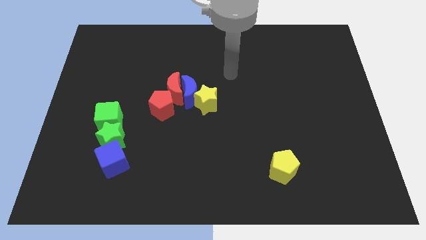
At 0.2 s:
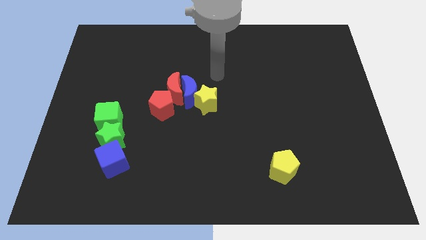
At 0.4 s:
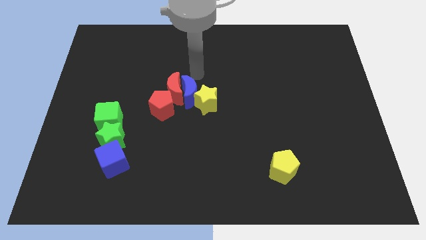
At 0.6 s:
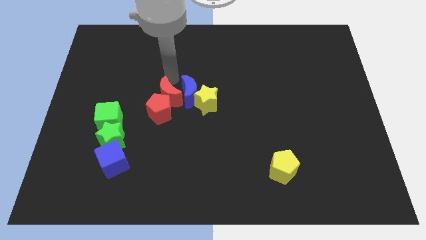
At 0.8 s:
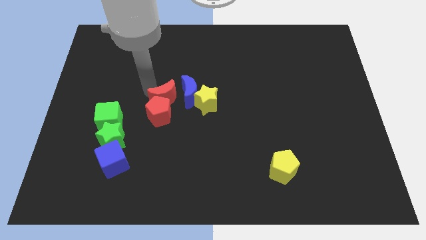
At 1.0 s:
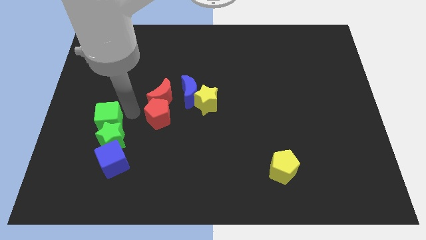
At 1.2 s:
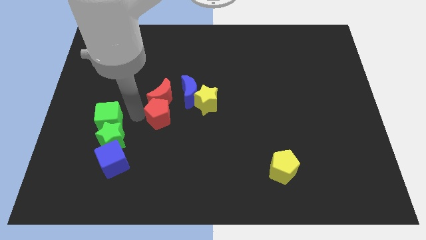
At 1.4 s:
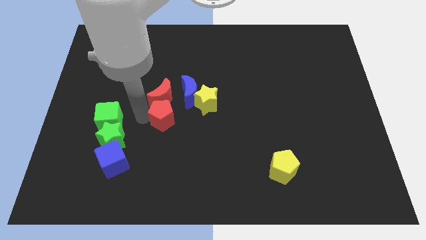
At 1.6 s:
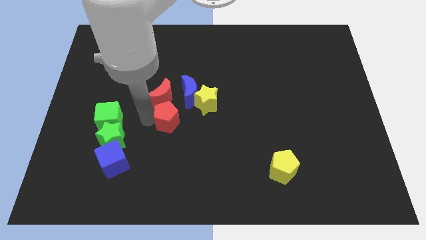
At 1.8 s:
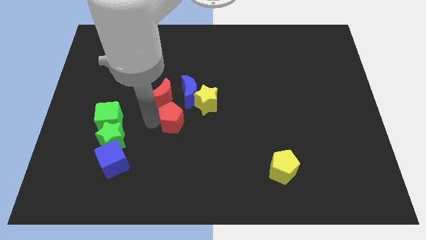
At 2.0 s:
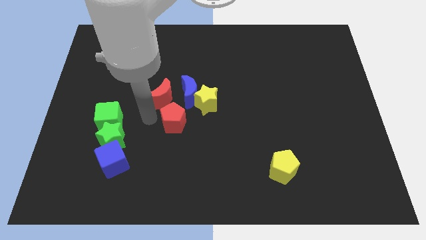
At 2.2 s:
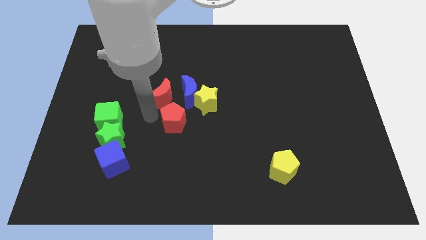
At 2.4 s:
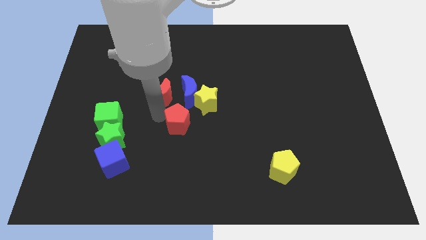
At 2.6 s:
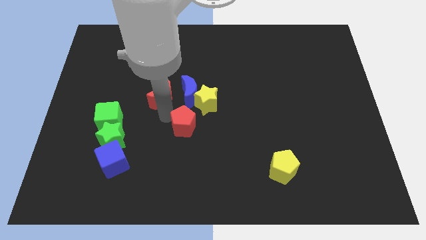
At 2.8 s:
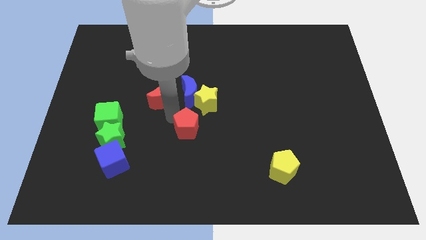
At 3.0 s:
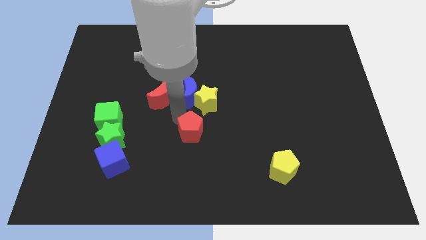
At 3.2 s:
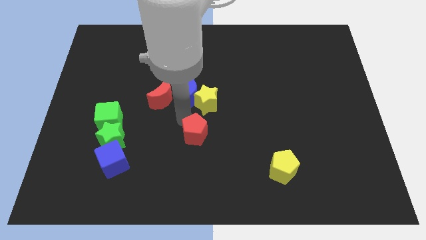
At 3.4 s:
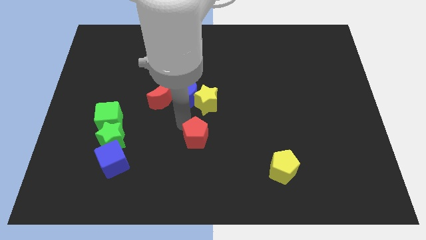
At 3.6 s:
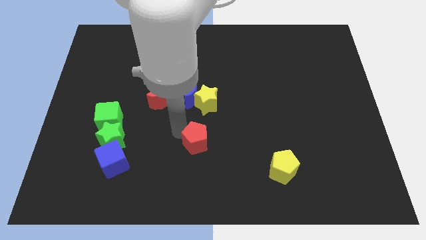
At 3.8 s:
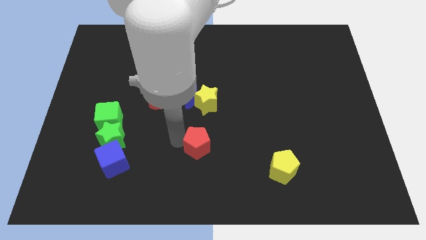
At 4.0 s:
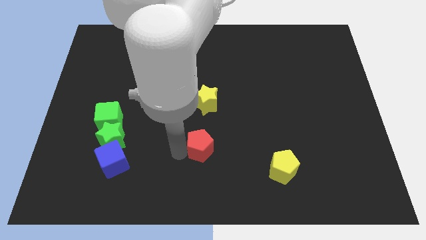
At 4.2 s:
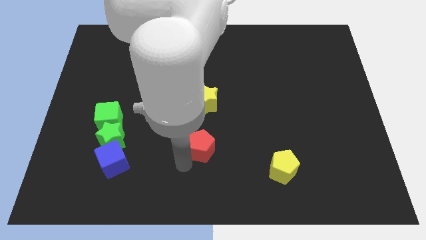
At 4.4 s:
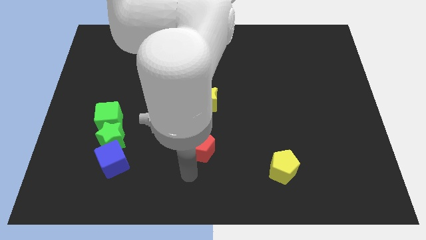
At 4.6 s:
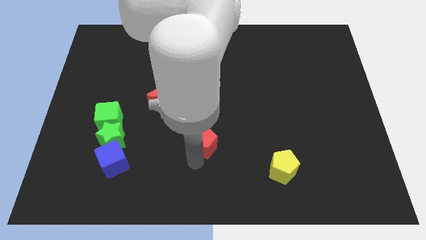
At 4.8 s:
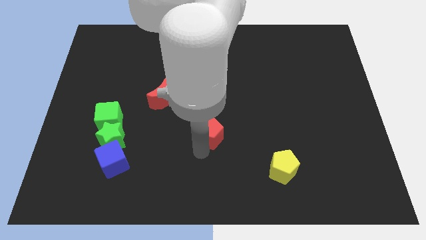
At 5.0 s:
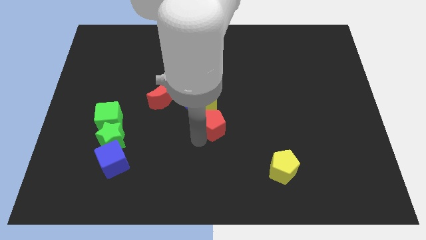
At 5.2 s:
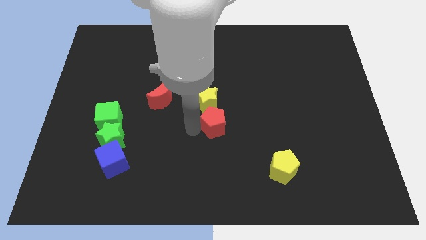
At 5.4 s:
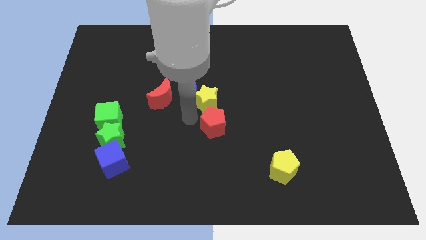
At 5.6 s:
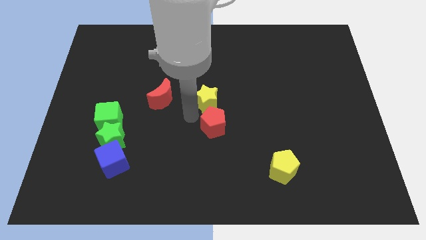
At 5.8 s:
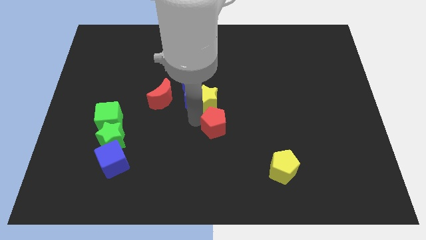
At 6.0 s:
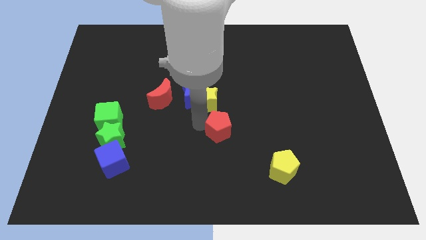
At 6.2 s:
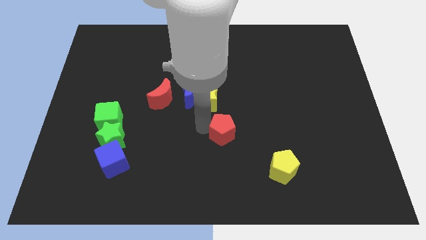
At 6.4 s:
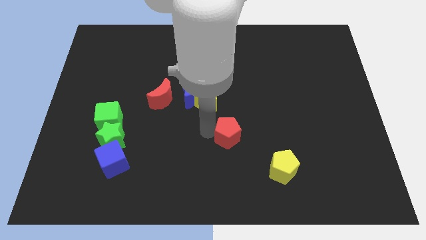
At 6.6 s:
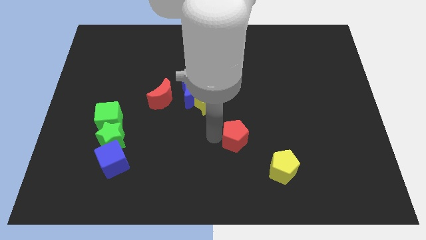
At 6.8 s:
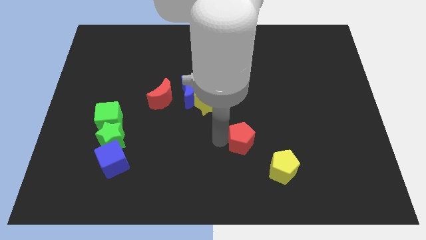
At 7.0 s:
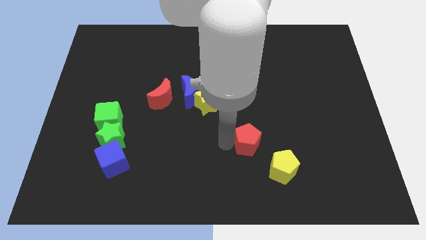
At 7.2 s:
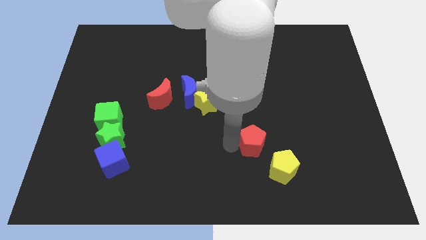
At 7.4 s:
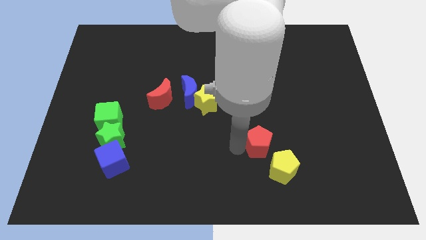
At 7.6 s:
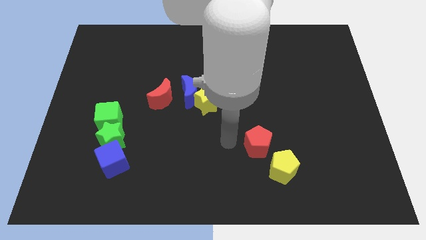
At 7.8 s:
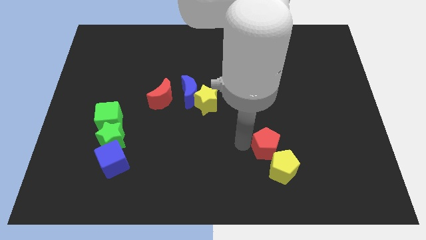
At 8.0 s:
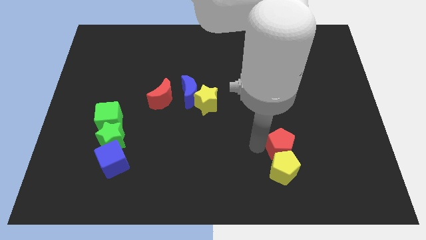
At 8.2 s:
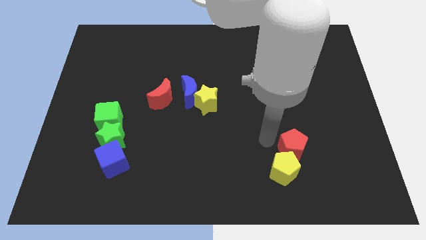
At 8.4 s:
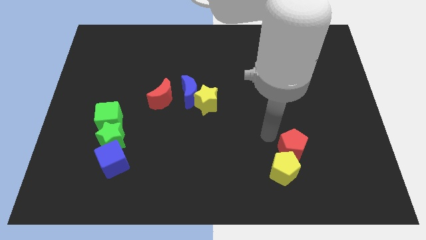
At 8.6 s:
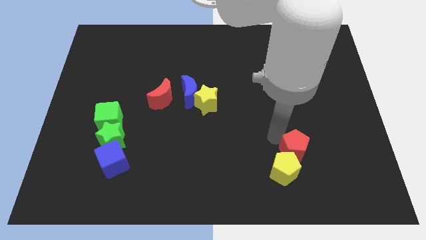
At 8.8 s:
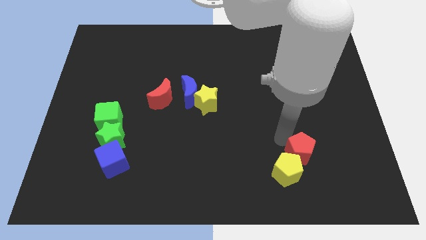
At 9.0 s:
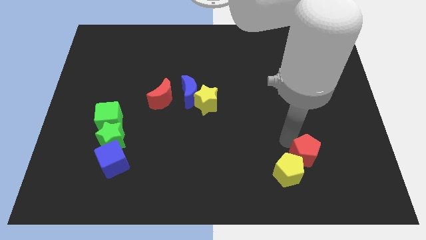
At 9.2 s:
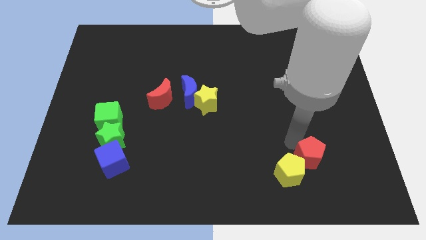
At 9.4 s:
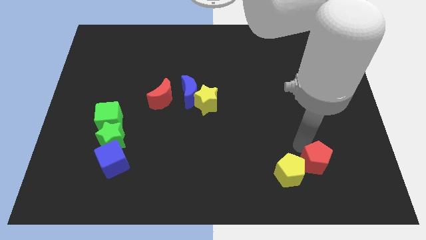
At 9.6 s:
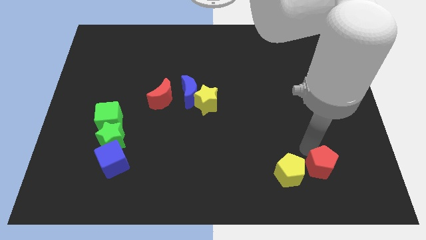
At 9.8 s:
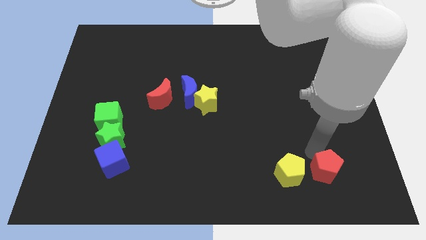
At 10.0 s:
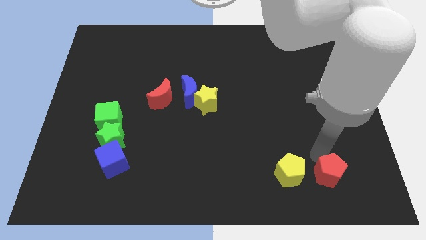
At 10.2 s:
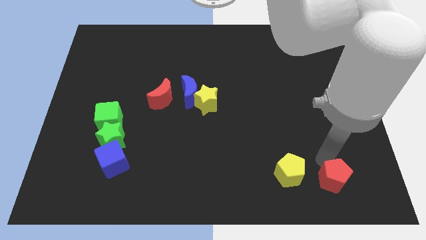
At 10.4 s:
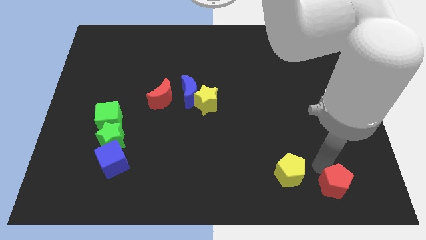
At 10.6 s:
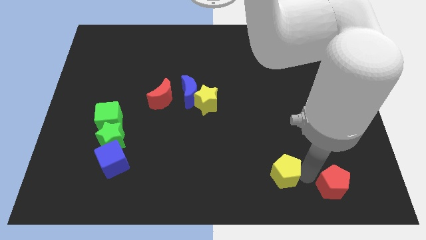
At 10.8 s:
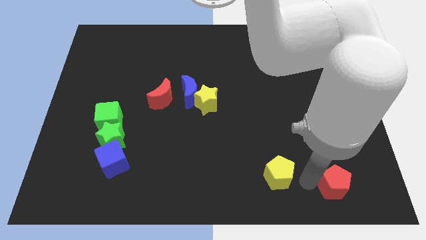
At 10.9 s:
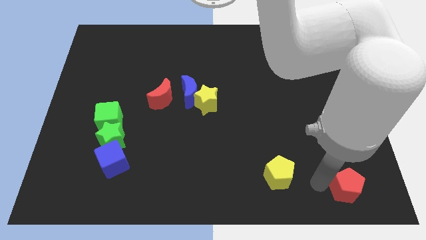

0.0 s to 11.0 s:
slide the red pentagon to the bottom right
